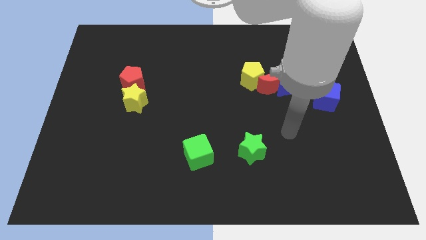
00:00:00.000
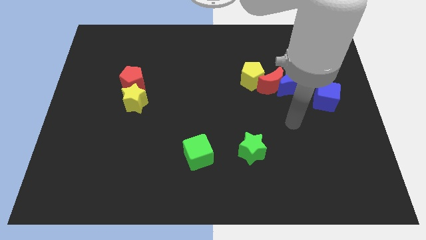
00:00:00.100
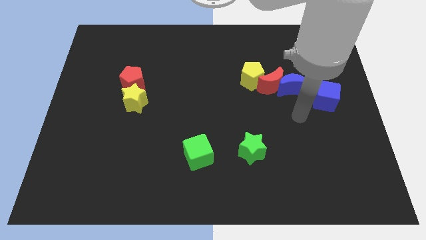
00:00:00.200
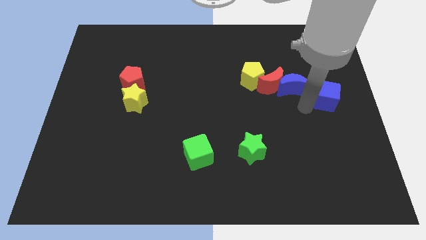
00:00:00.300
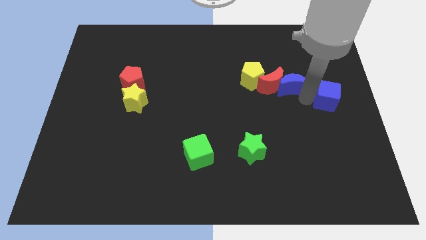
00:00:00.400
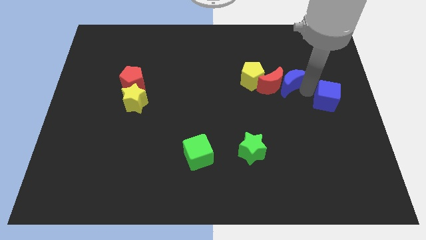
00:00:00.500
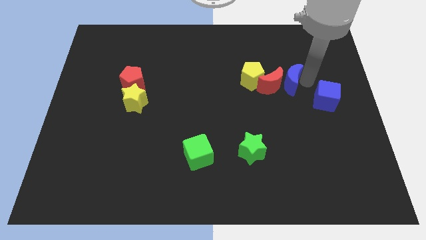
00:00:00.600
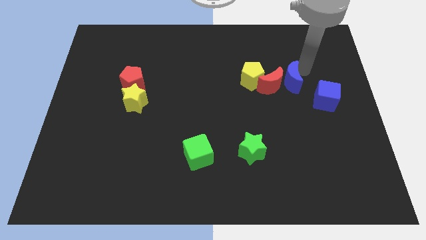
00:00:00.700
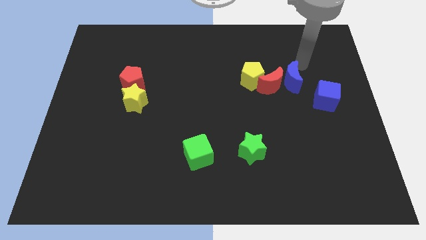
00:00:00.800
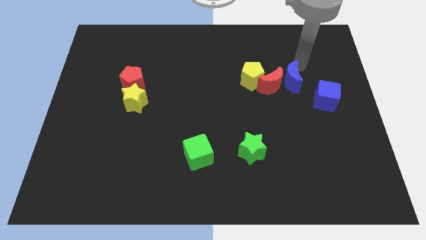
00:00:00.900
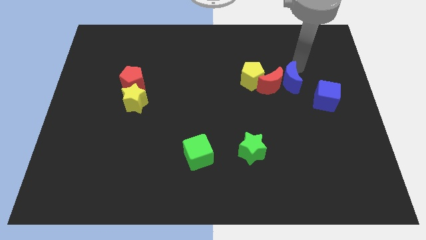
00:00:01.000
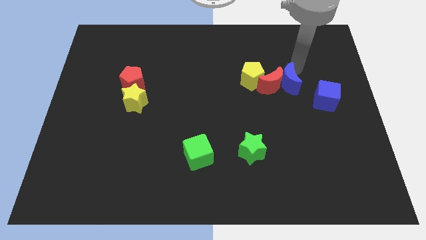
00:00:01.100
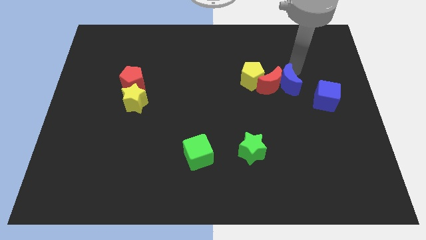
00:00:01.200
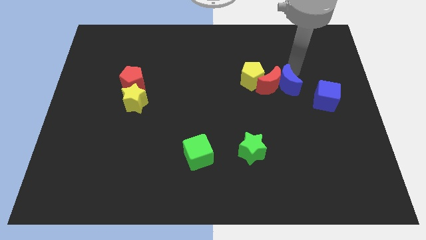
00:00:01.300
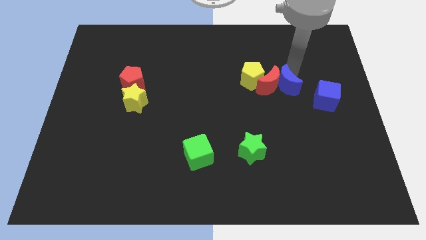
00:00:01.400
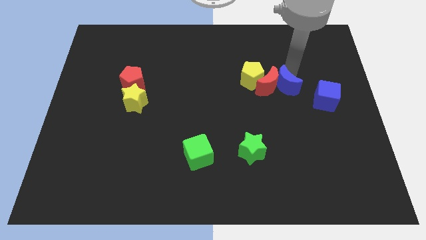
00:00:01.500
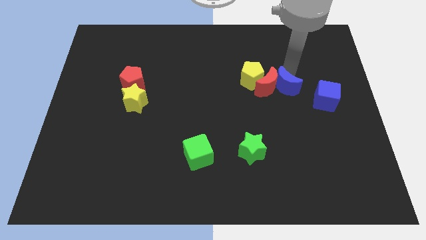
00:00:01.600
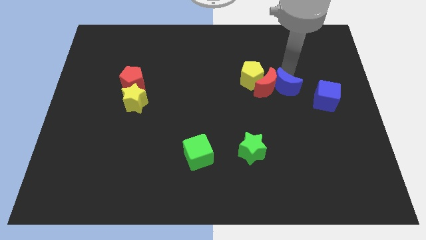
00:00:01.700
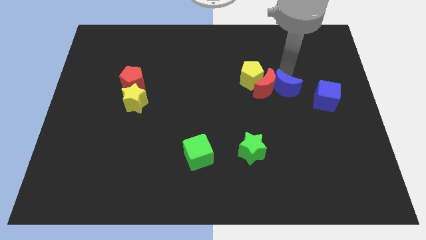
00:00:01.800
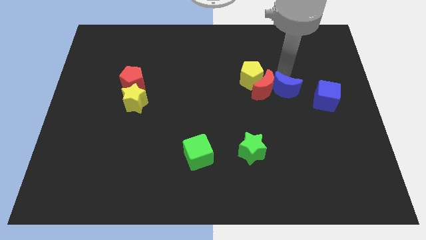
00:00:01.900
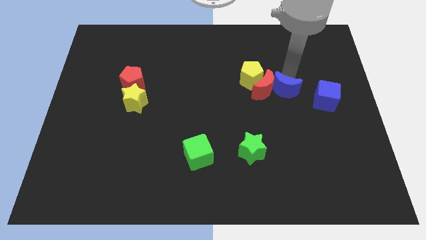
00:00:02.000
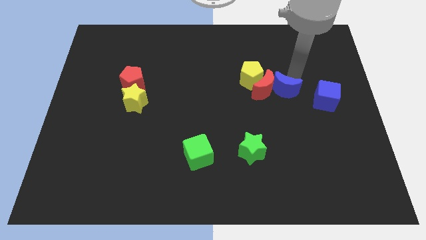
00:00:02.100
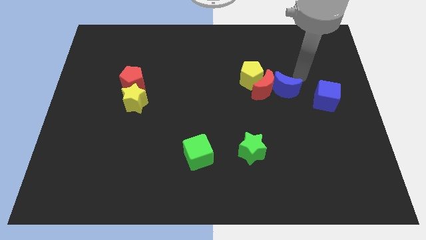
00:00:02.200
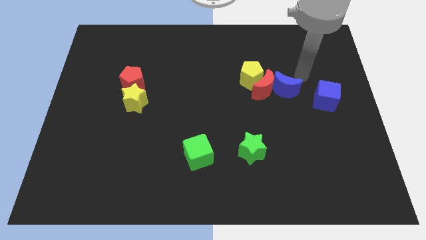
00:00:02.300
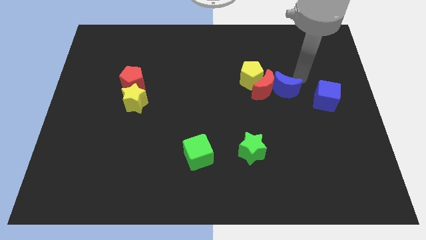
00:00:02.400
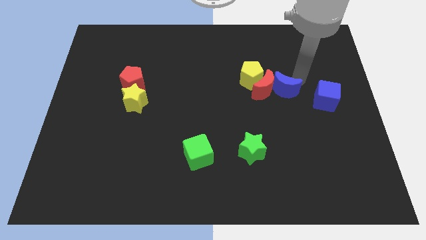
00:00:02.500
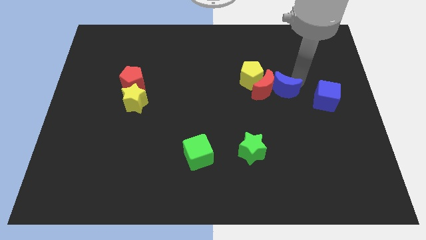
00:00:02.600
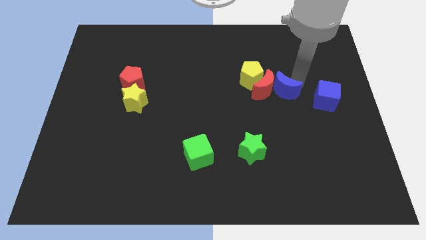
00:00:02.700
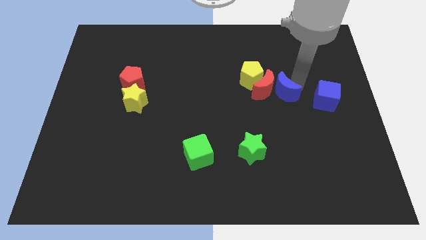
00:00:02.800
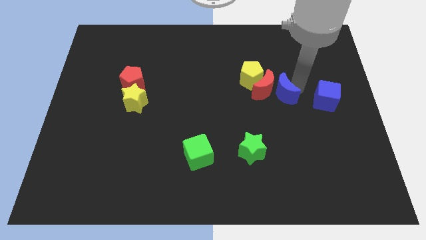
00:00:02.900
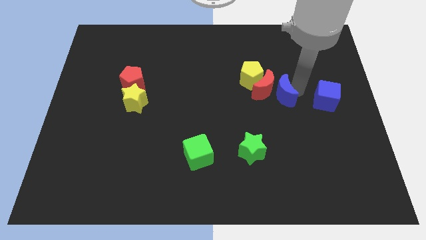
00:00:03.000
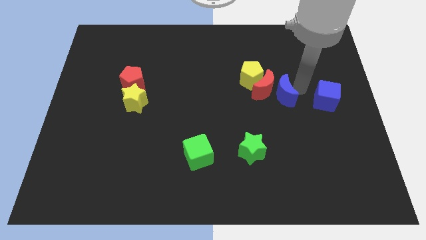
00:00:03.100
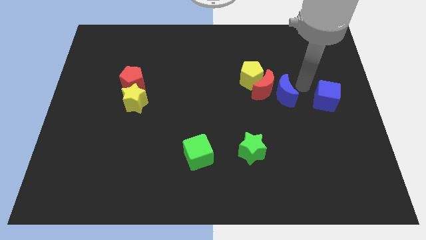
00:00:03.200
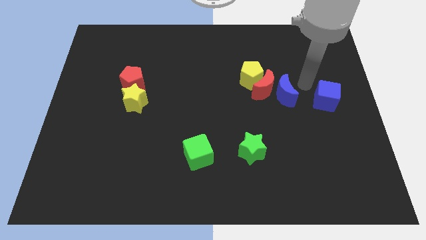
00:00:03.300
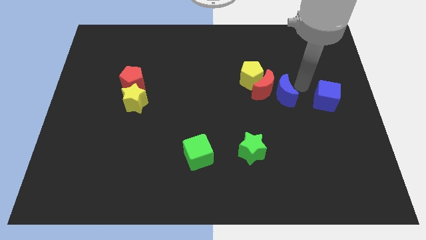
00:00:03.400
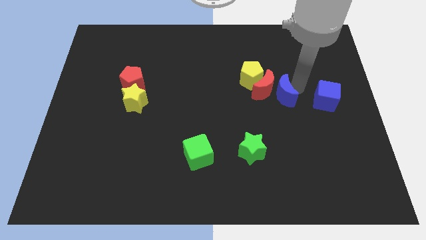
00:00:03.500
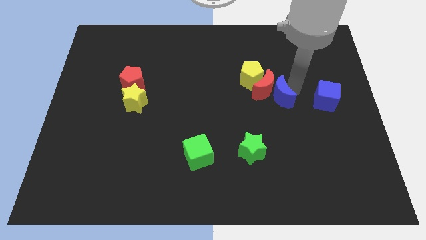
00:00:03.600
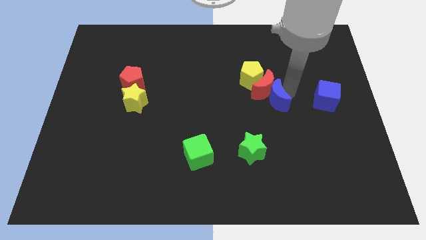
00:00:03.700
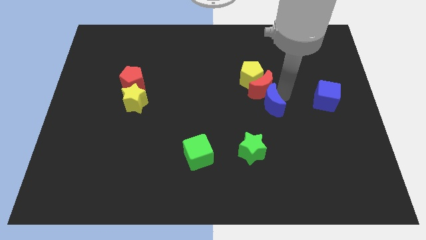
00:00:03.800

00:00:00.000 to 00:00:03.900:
slightly push the blue moon downwards and left

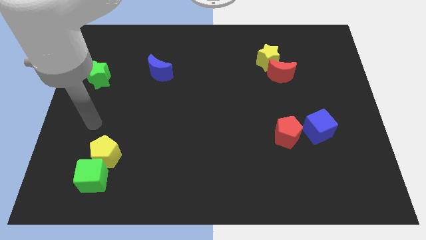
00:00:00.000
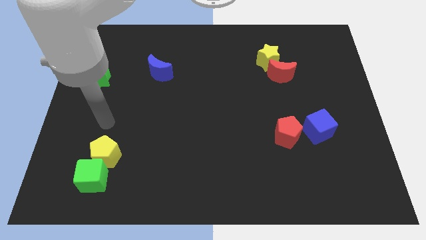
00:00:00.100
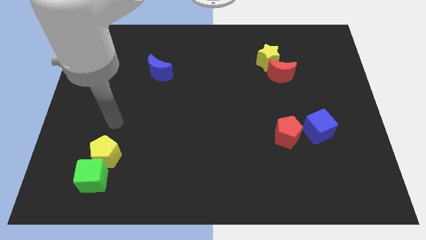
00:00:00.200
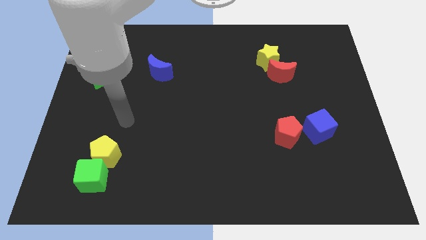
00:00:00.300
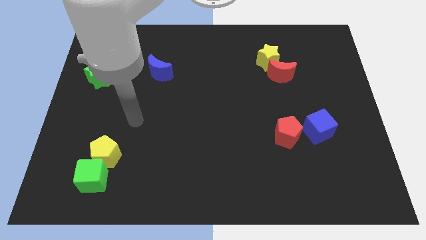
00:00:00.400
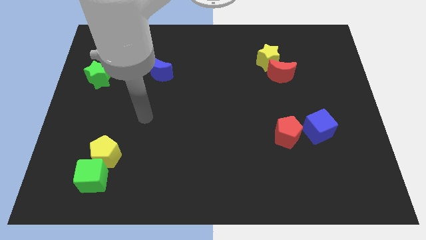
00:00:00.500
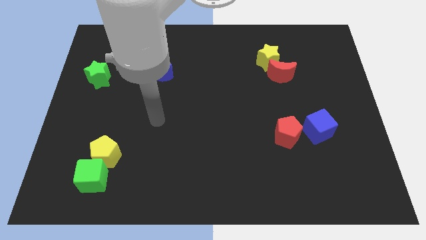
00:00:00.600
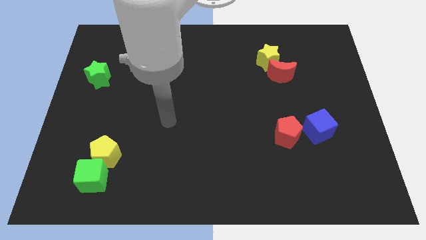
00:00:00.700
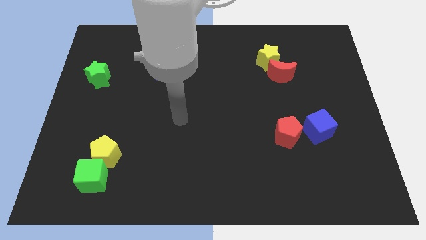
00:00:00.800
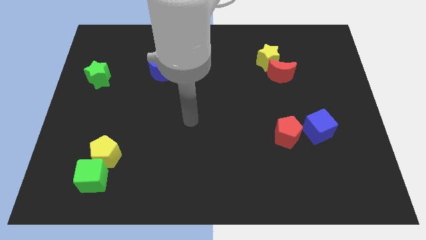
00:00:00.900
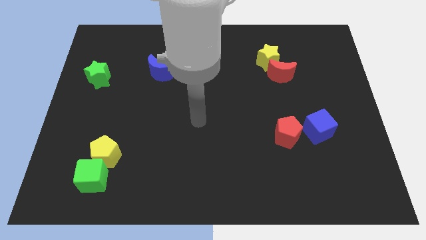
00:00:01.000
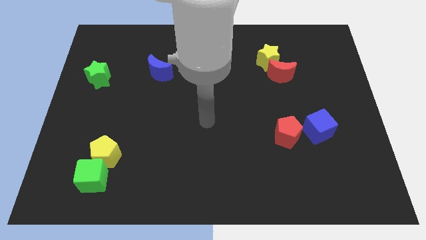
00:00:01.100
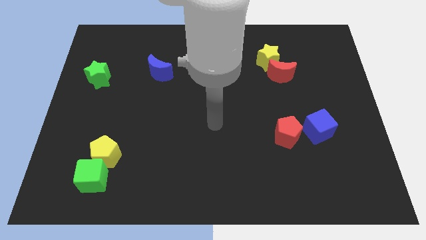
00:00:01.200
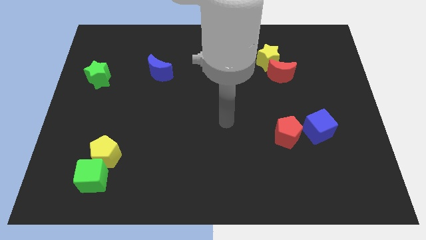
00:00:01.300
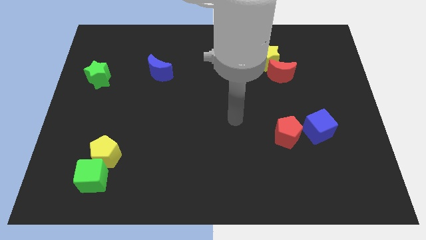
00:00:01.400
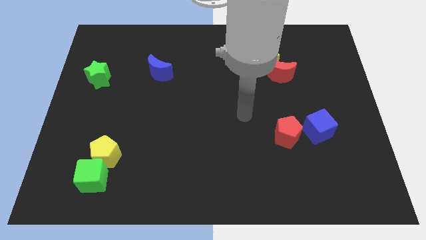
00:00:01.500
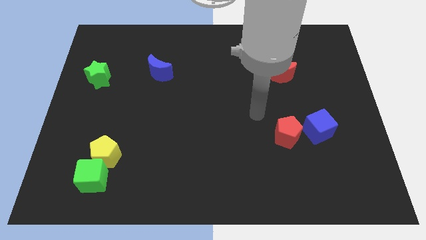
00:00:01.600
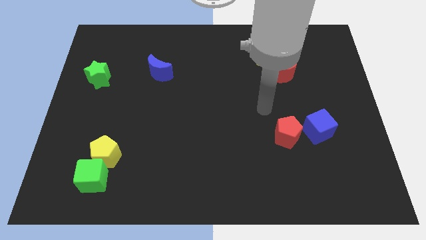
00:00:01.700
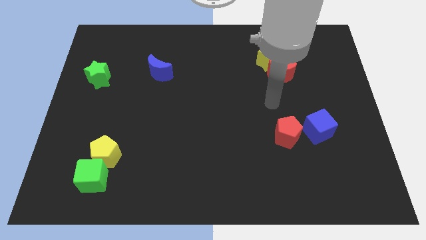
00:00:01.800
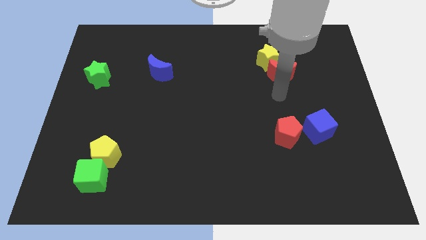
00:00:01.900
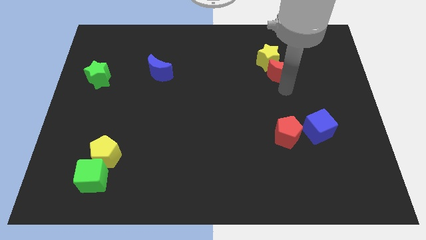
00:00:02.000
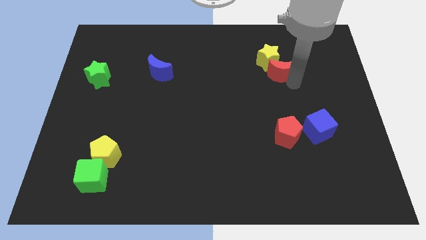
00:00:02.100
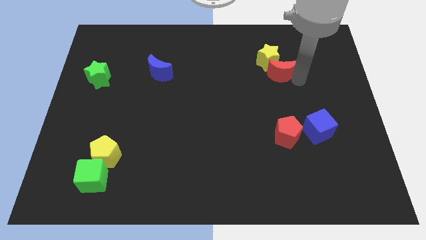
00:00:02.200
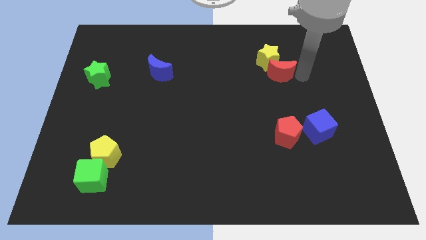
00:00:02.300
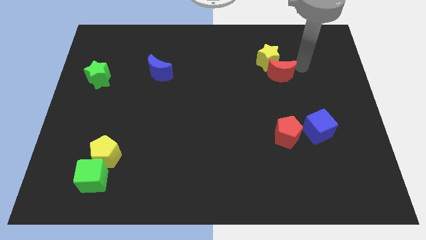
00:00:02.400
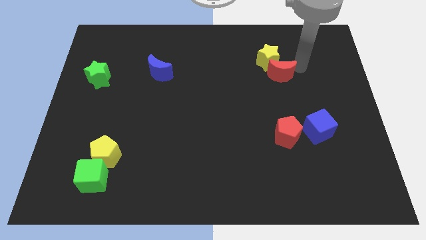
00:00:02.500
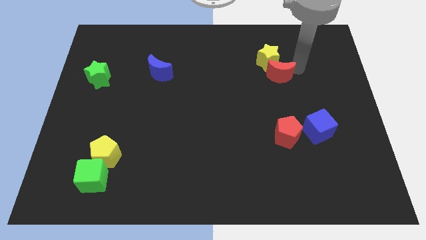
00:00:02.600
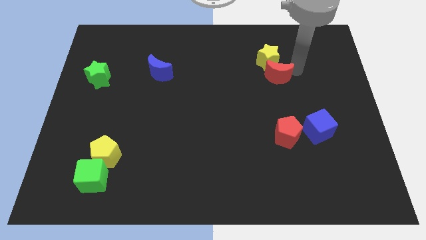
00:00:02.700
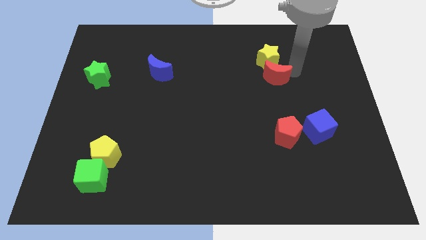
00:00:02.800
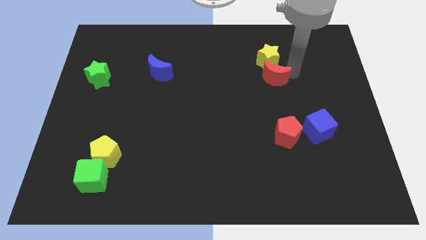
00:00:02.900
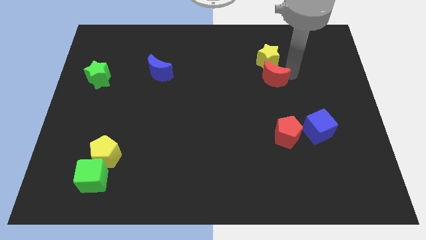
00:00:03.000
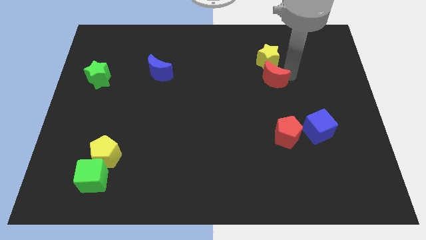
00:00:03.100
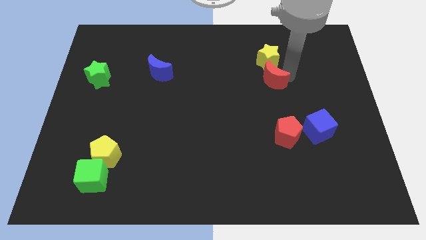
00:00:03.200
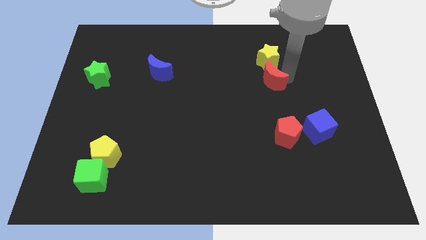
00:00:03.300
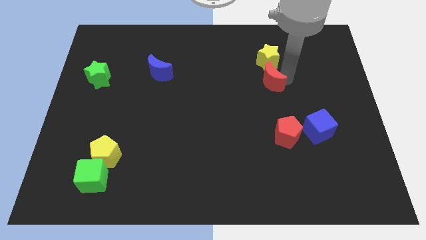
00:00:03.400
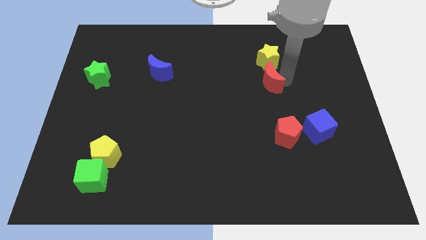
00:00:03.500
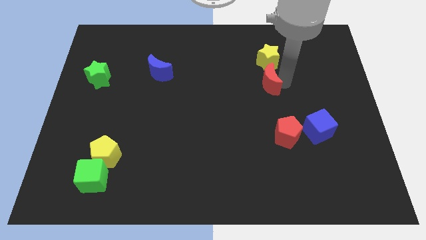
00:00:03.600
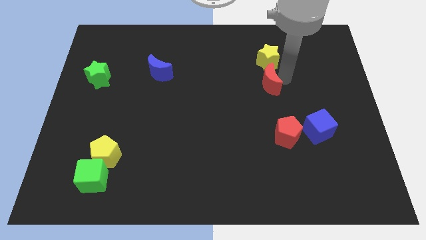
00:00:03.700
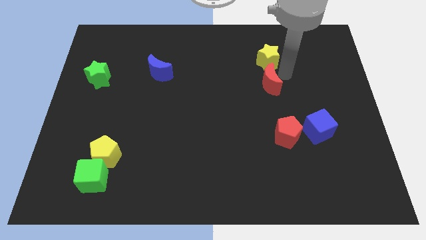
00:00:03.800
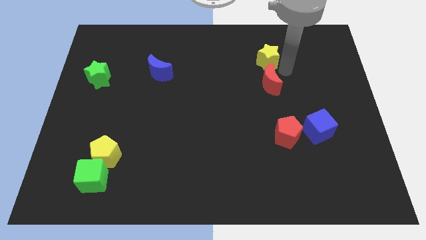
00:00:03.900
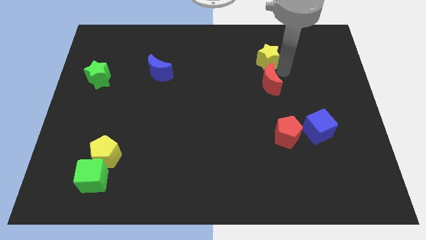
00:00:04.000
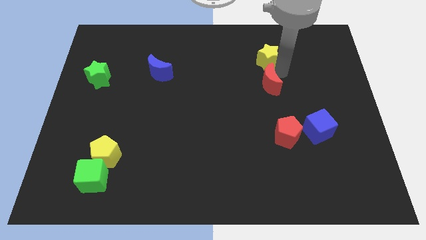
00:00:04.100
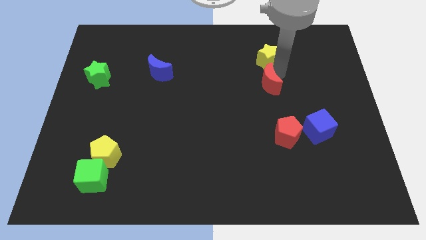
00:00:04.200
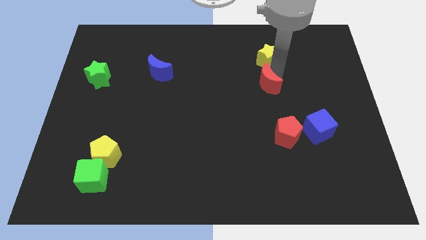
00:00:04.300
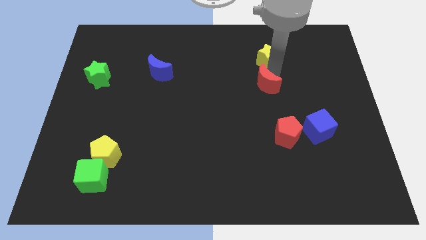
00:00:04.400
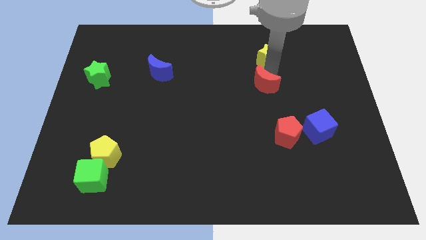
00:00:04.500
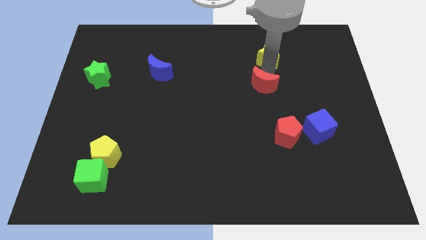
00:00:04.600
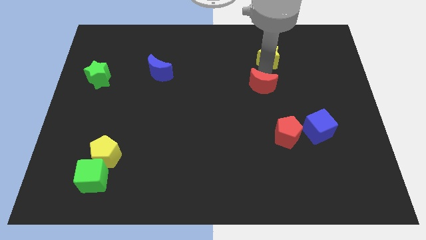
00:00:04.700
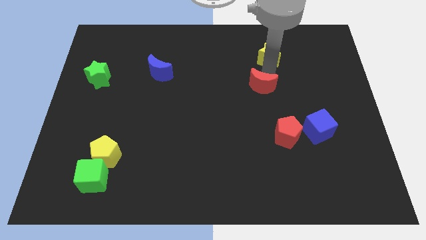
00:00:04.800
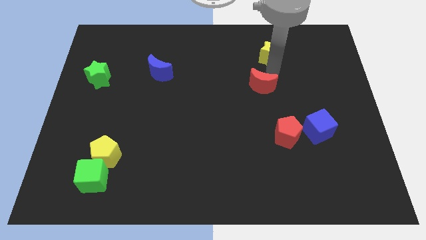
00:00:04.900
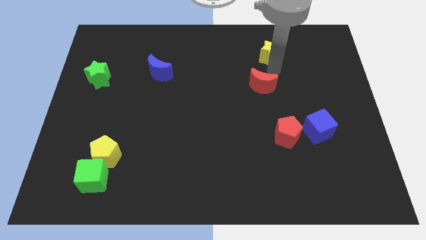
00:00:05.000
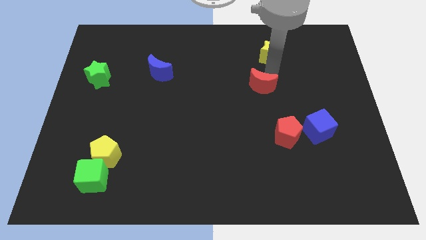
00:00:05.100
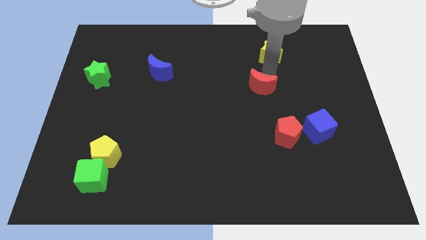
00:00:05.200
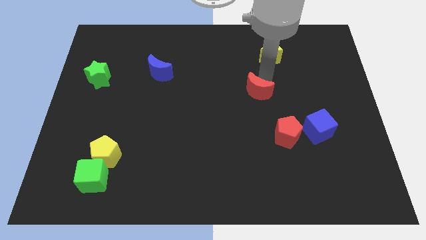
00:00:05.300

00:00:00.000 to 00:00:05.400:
slide the red moon slightly diagonally down and to the left
